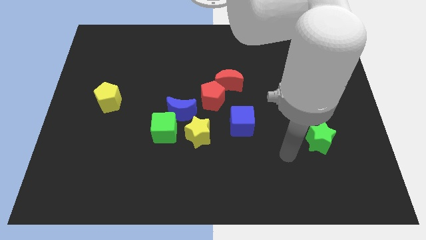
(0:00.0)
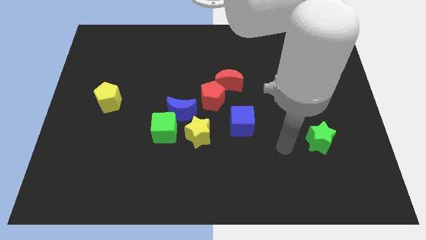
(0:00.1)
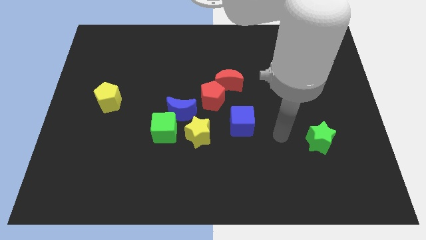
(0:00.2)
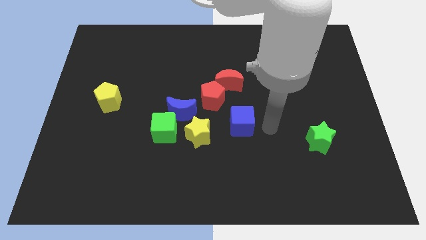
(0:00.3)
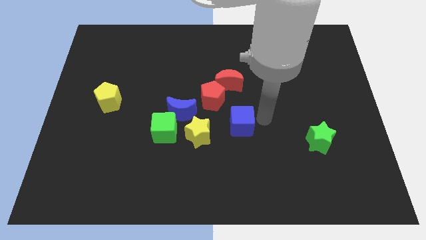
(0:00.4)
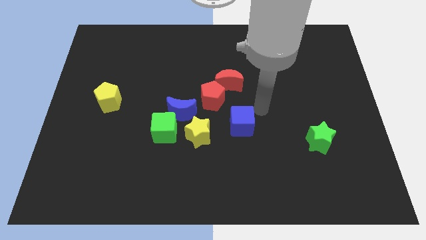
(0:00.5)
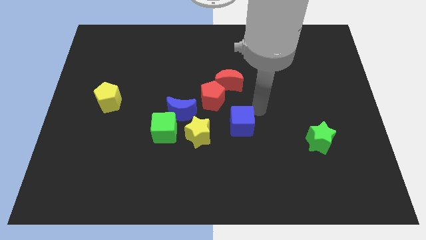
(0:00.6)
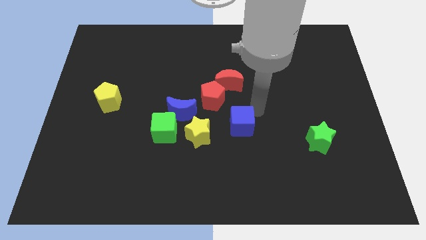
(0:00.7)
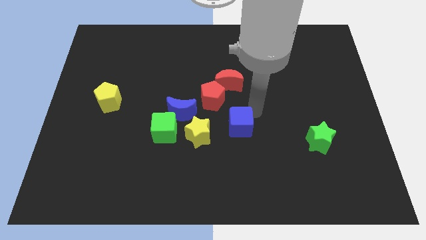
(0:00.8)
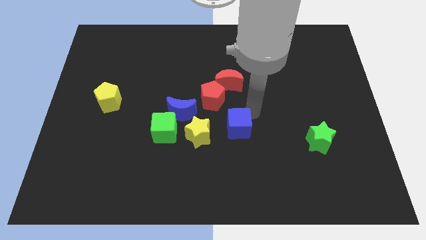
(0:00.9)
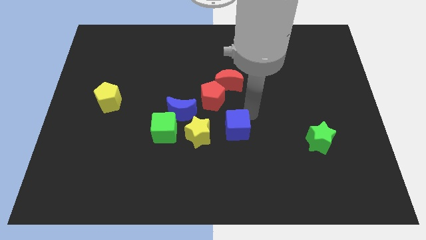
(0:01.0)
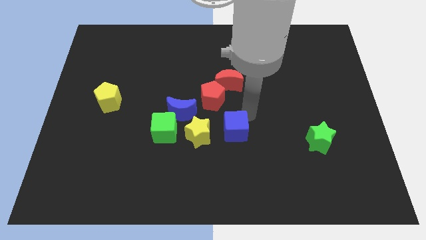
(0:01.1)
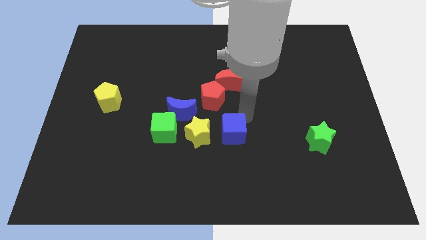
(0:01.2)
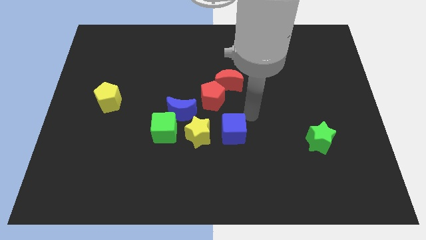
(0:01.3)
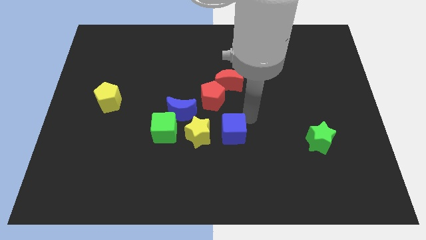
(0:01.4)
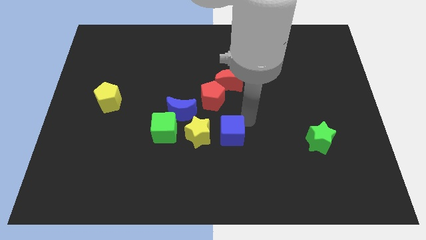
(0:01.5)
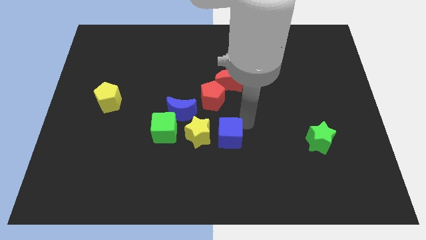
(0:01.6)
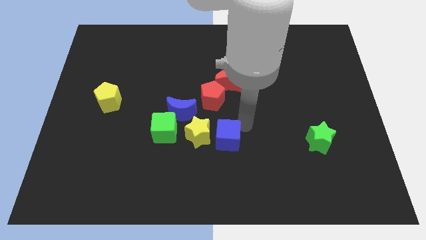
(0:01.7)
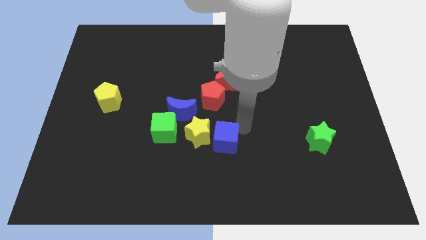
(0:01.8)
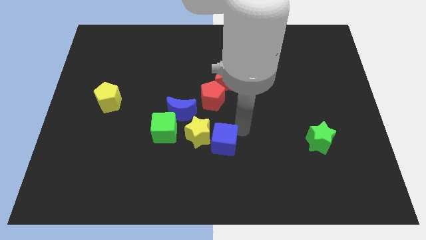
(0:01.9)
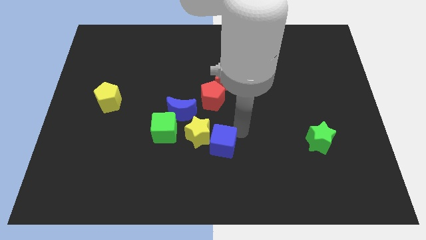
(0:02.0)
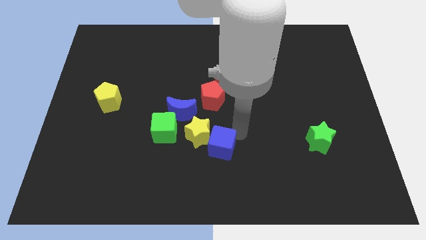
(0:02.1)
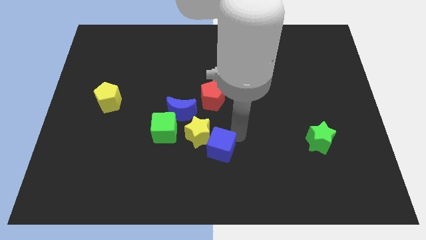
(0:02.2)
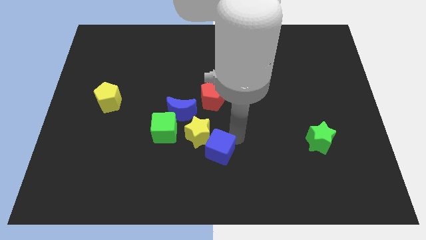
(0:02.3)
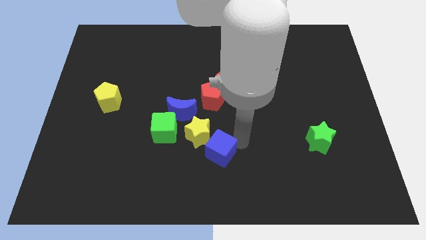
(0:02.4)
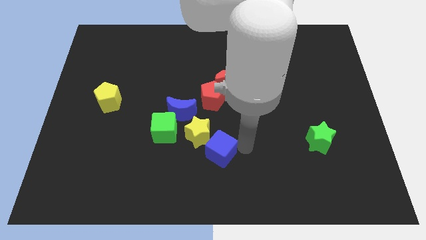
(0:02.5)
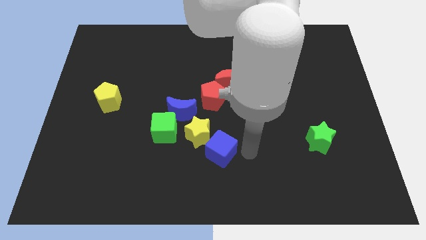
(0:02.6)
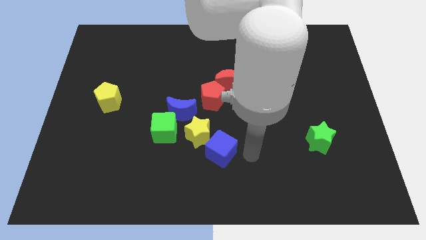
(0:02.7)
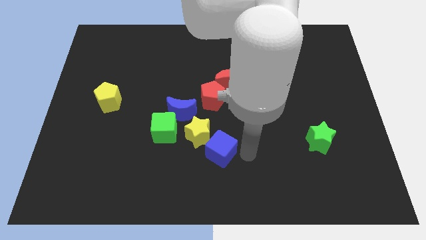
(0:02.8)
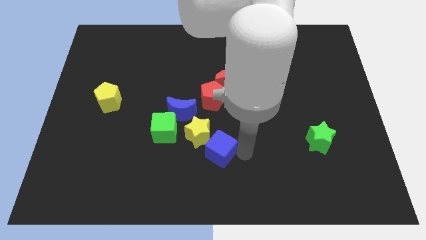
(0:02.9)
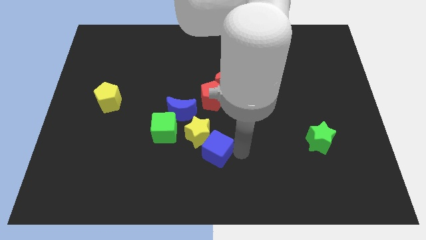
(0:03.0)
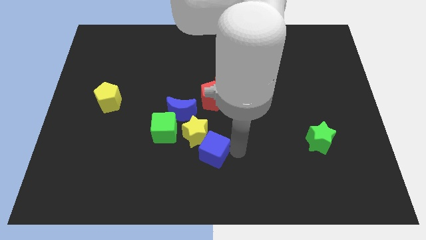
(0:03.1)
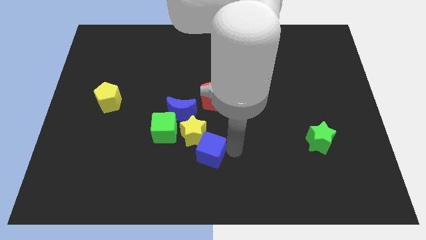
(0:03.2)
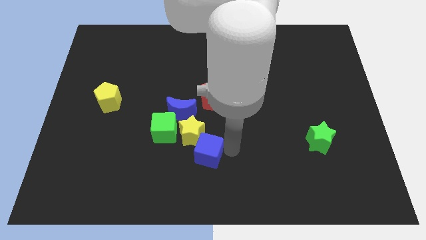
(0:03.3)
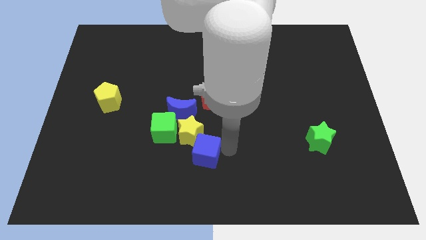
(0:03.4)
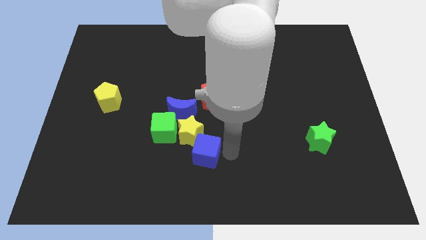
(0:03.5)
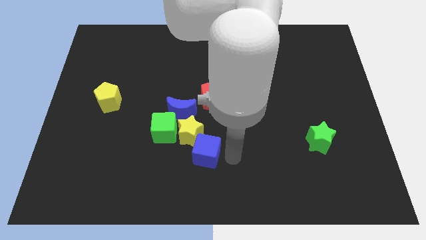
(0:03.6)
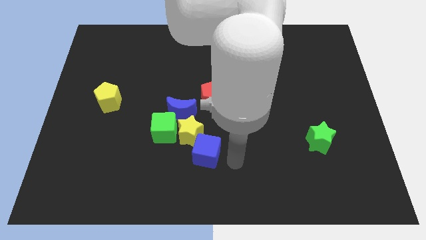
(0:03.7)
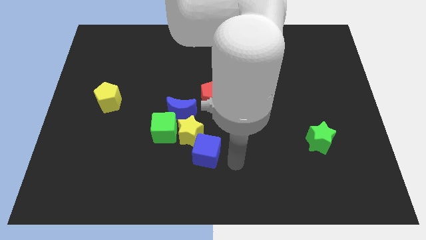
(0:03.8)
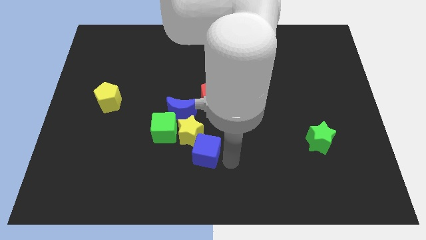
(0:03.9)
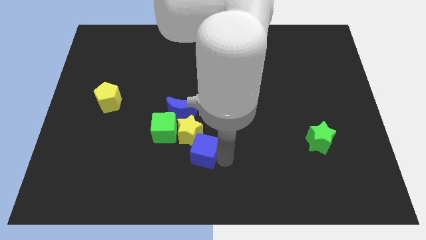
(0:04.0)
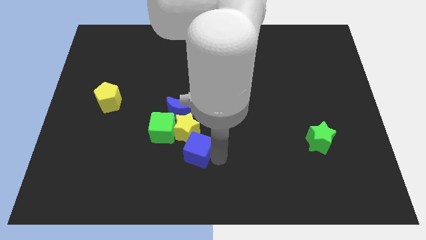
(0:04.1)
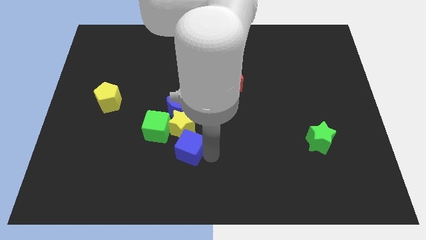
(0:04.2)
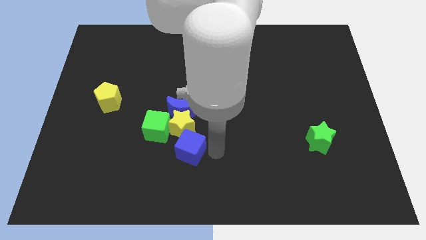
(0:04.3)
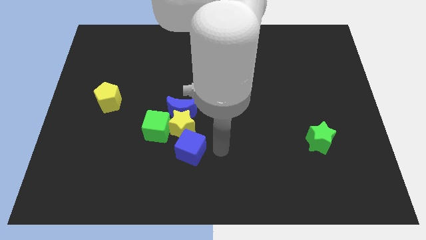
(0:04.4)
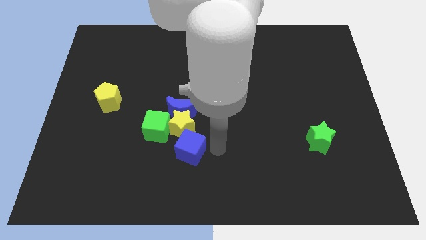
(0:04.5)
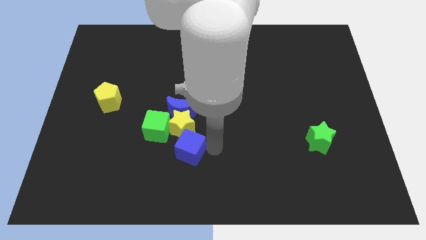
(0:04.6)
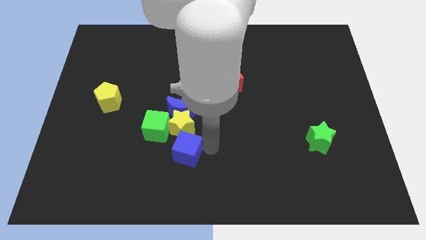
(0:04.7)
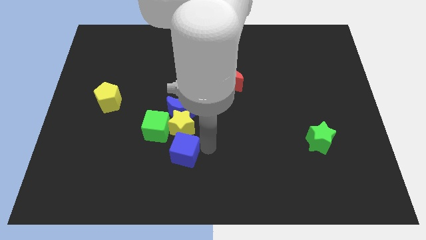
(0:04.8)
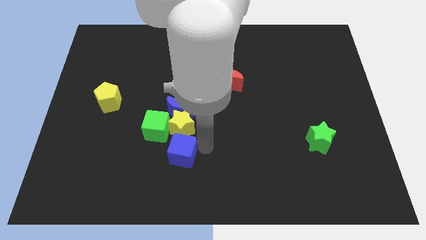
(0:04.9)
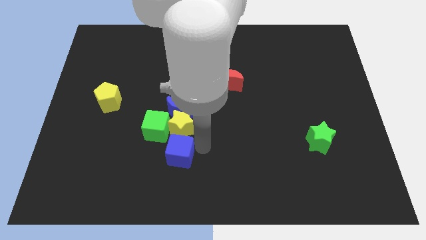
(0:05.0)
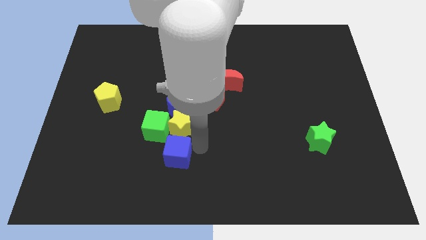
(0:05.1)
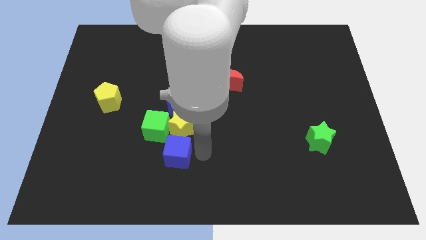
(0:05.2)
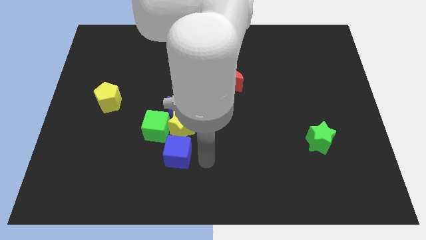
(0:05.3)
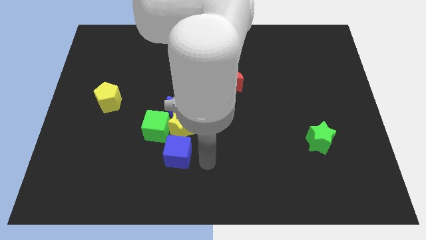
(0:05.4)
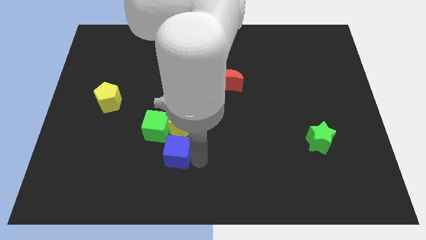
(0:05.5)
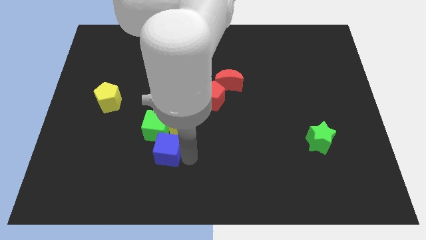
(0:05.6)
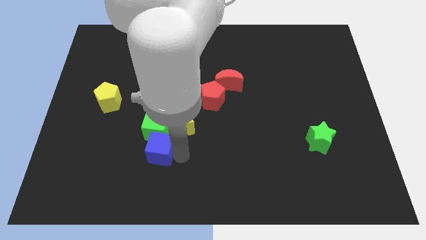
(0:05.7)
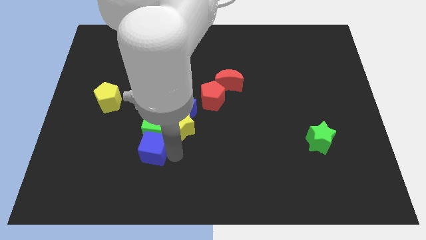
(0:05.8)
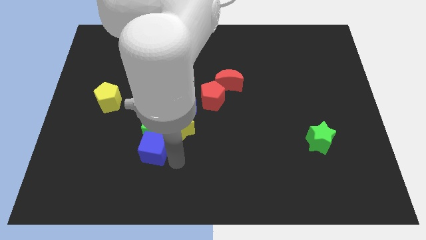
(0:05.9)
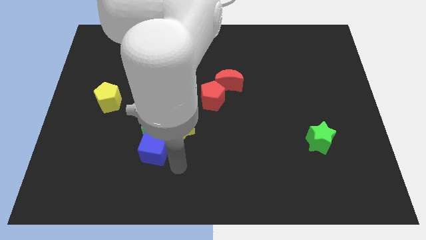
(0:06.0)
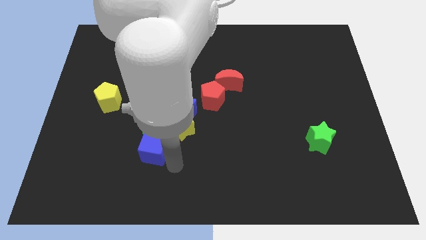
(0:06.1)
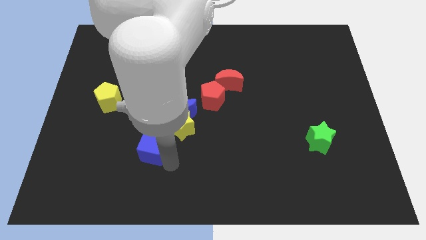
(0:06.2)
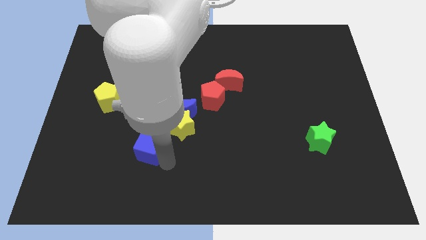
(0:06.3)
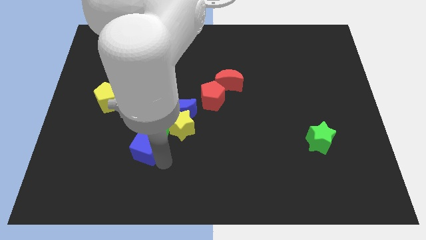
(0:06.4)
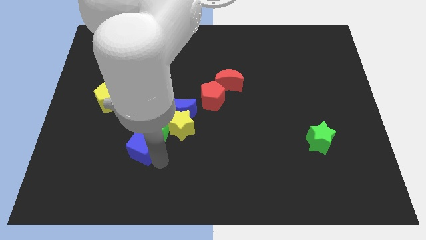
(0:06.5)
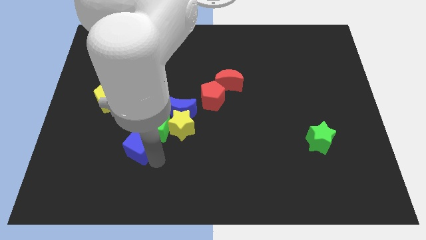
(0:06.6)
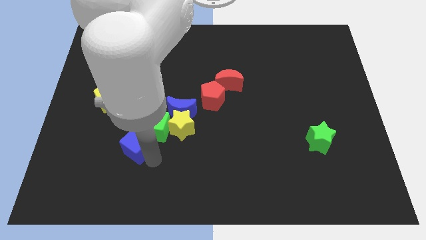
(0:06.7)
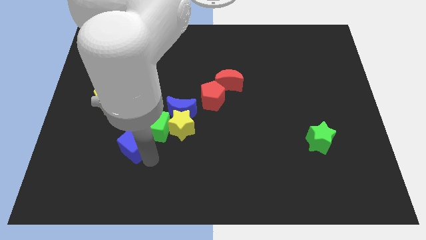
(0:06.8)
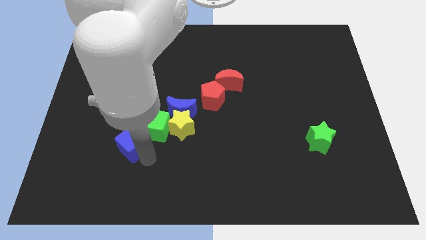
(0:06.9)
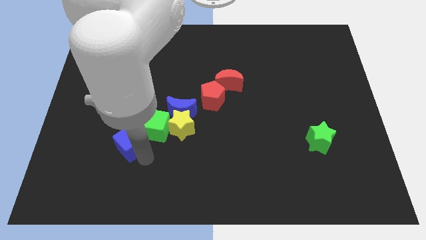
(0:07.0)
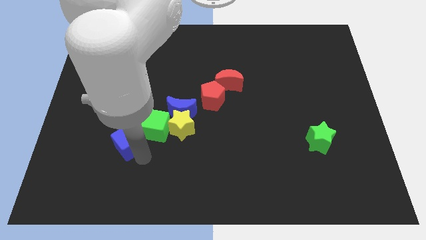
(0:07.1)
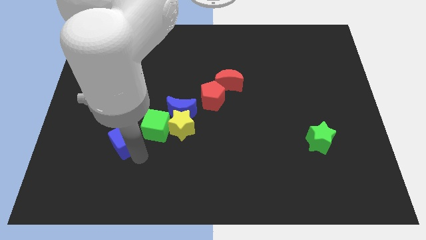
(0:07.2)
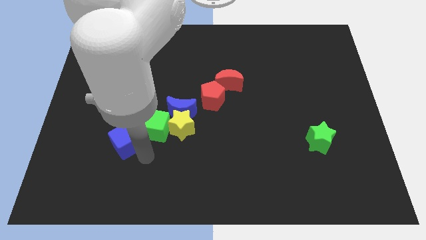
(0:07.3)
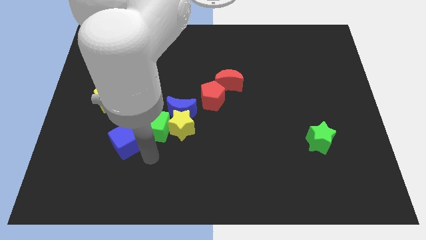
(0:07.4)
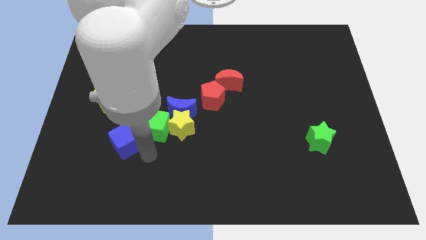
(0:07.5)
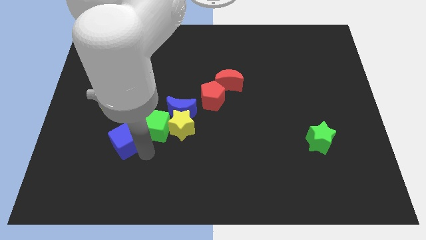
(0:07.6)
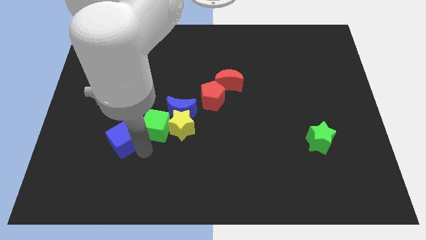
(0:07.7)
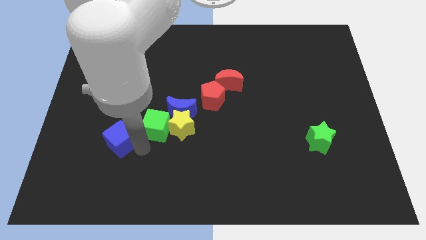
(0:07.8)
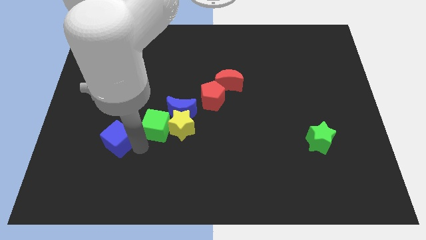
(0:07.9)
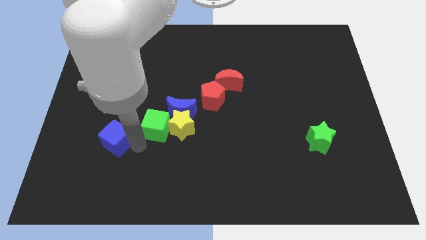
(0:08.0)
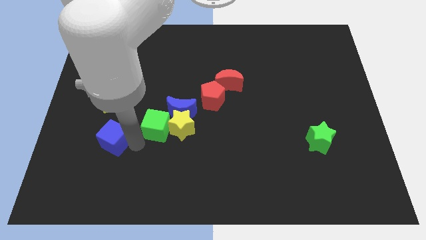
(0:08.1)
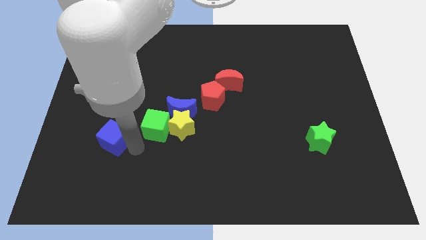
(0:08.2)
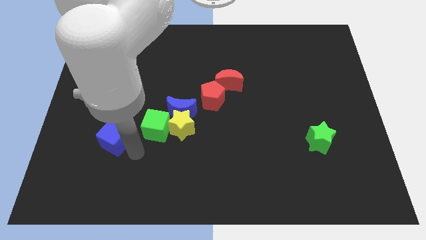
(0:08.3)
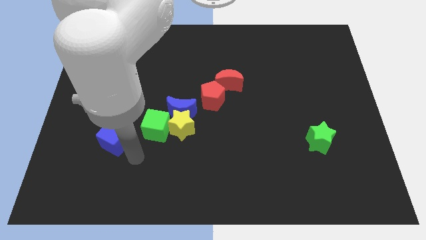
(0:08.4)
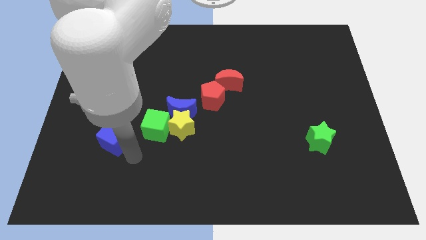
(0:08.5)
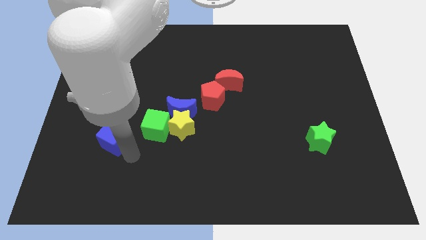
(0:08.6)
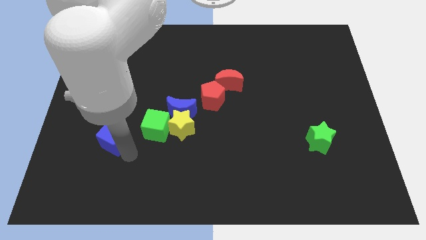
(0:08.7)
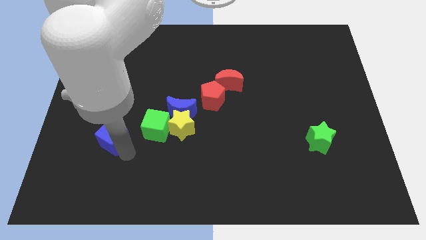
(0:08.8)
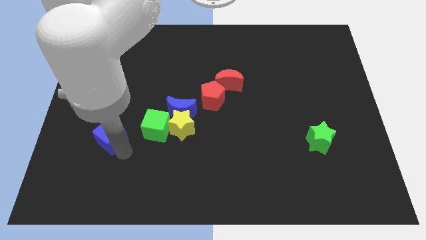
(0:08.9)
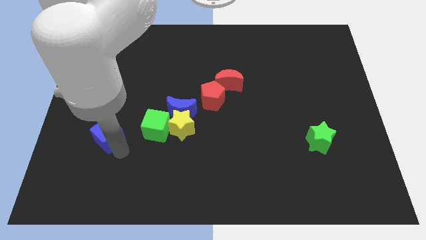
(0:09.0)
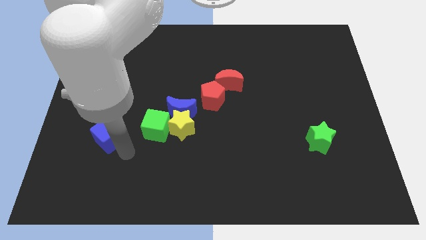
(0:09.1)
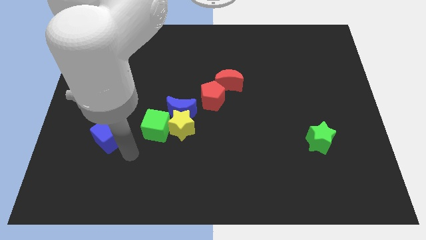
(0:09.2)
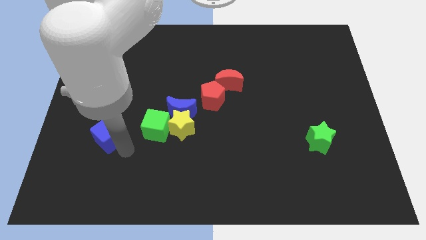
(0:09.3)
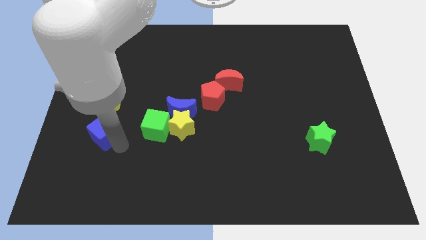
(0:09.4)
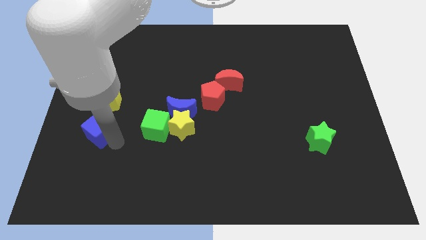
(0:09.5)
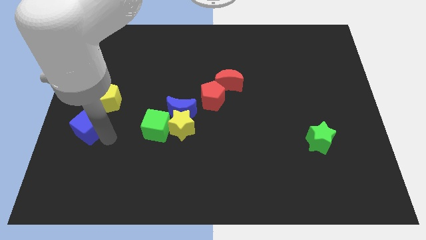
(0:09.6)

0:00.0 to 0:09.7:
slide the blue cube to the left side
